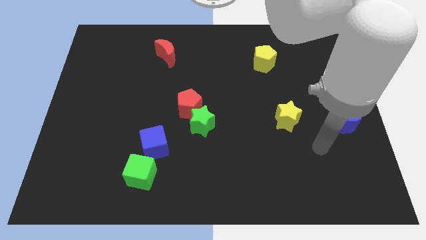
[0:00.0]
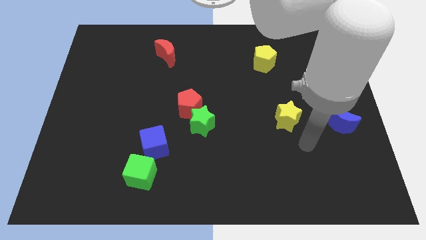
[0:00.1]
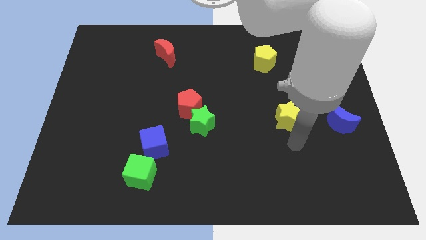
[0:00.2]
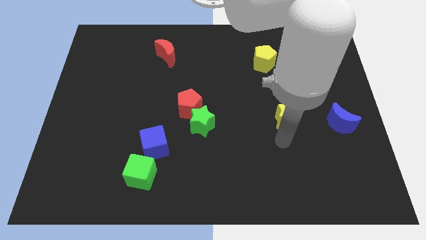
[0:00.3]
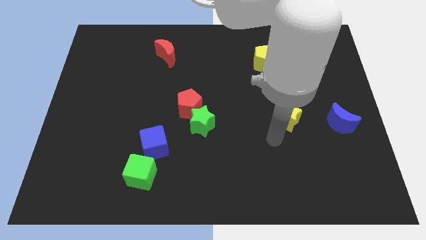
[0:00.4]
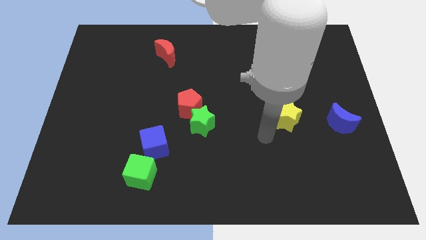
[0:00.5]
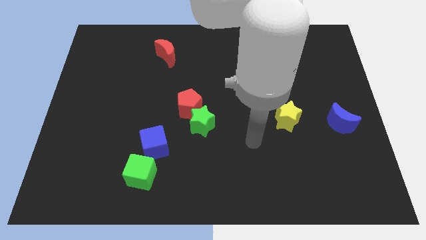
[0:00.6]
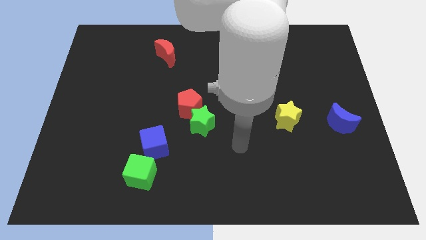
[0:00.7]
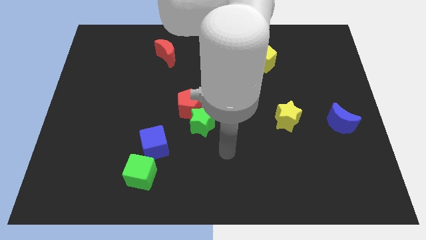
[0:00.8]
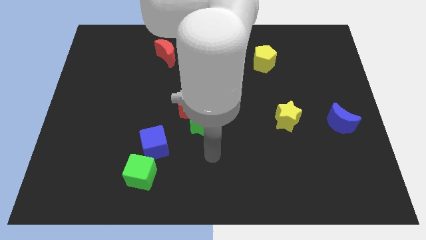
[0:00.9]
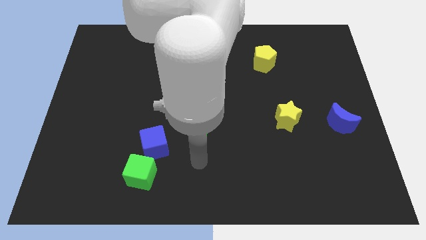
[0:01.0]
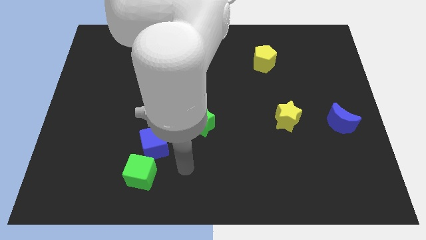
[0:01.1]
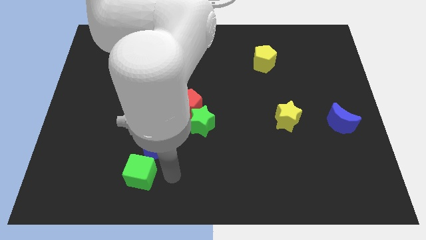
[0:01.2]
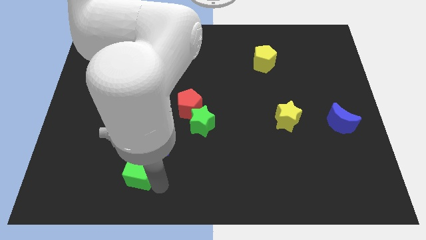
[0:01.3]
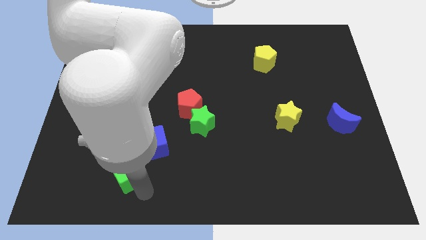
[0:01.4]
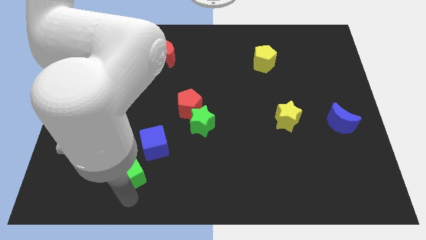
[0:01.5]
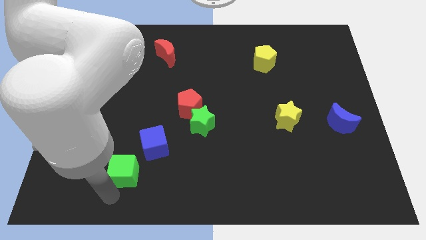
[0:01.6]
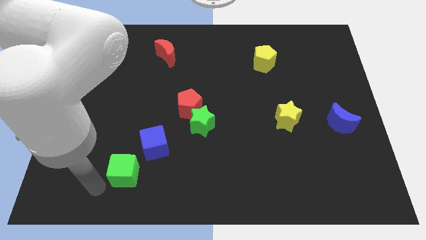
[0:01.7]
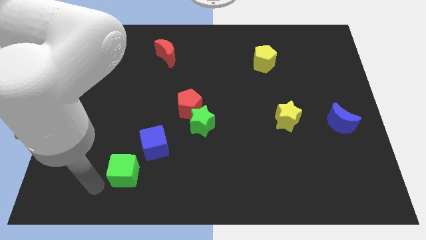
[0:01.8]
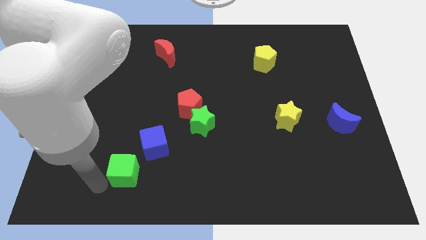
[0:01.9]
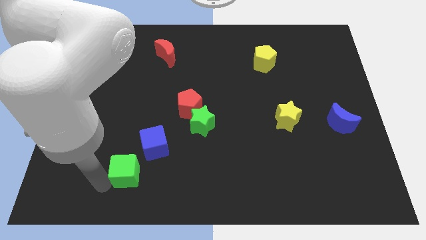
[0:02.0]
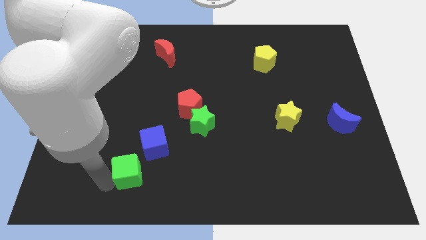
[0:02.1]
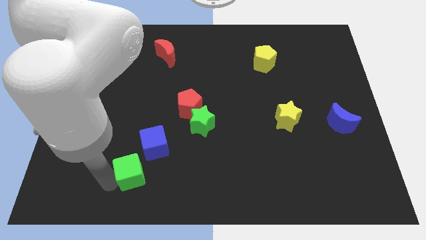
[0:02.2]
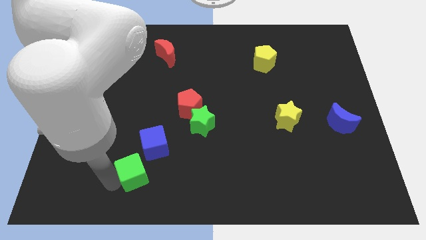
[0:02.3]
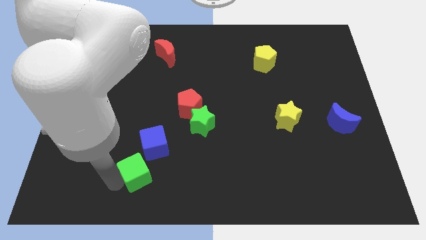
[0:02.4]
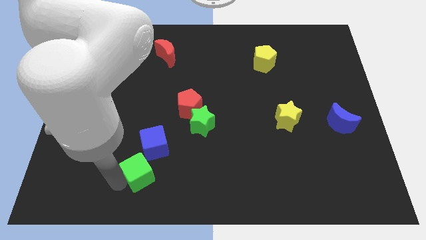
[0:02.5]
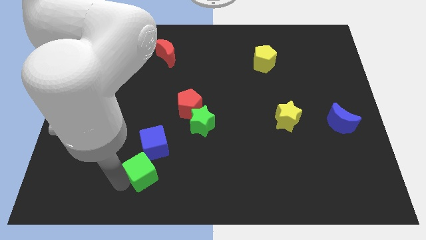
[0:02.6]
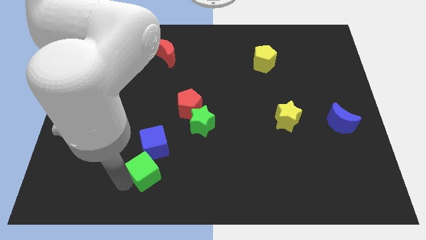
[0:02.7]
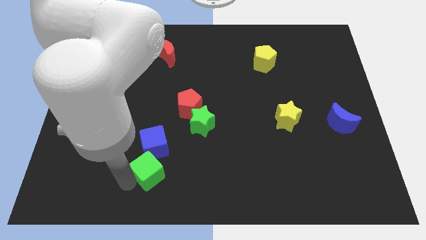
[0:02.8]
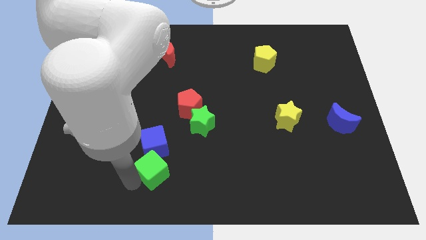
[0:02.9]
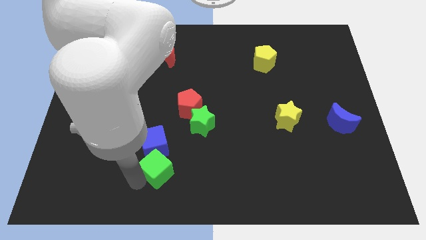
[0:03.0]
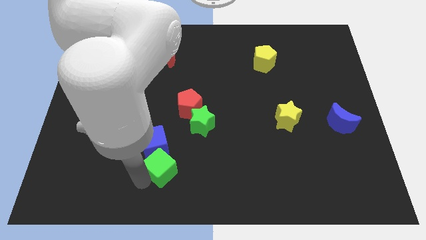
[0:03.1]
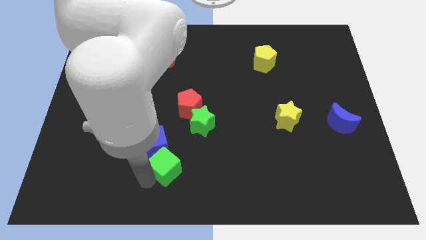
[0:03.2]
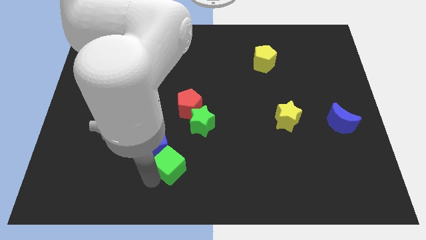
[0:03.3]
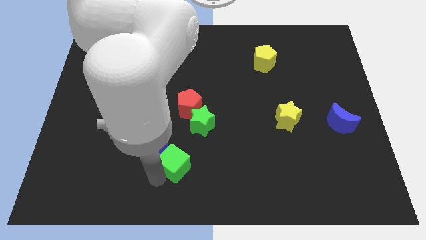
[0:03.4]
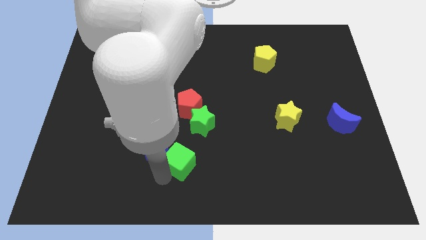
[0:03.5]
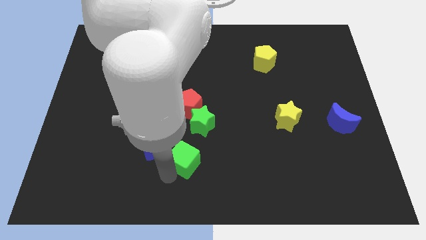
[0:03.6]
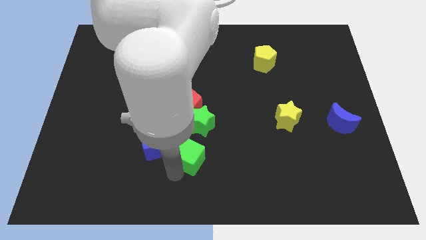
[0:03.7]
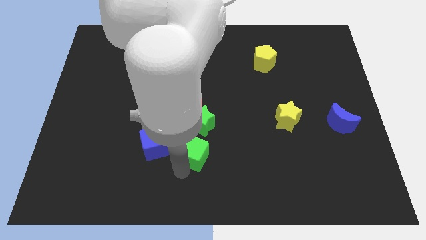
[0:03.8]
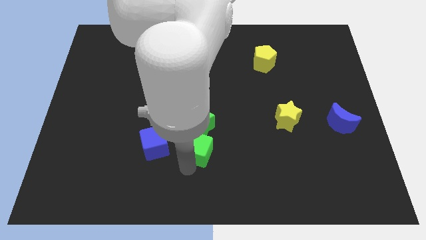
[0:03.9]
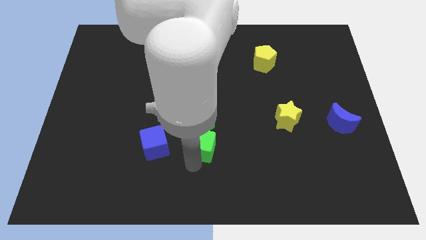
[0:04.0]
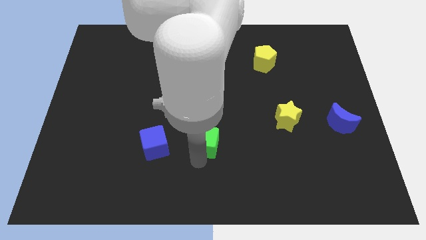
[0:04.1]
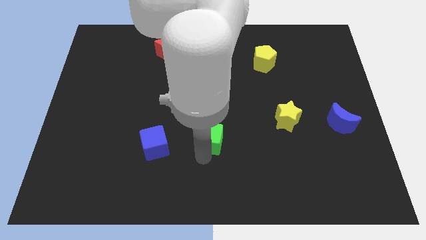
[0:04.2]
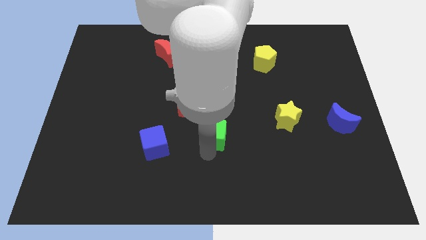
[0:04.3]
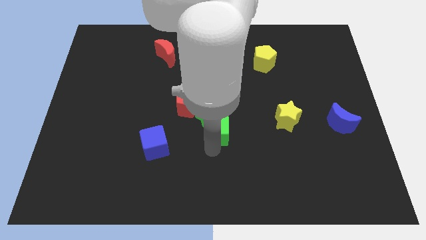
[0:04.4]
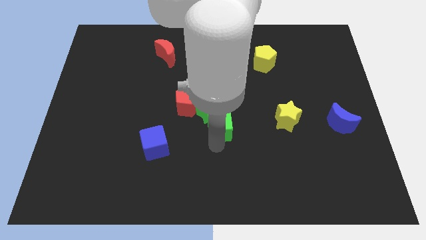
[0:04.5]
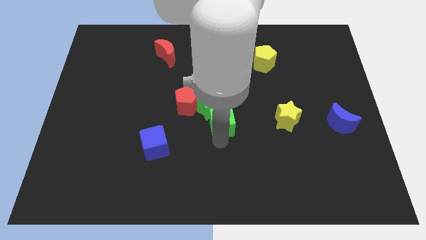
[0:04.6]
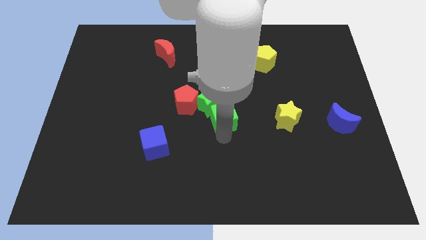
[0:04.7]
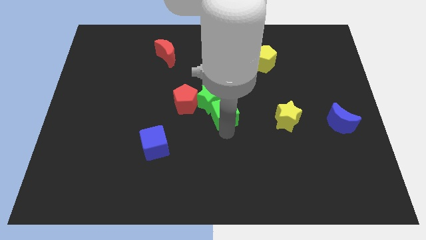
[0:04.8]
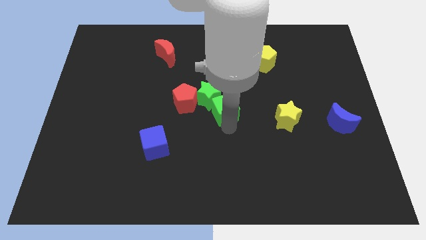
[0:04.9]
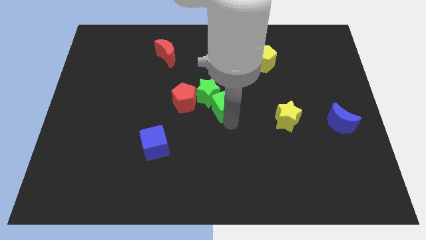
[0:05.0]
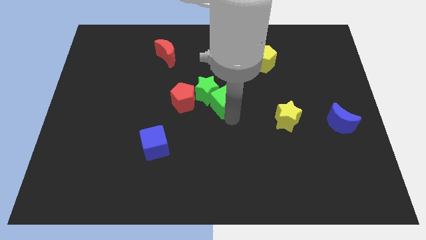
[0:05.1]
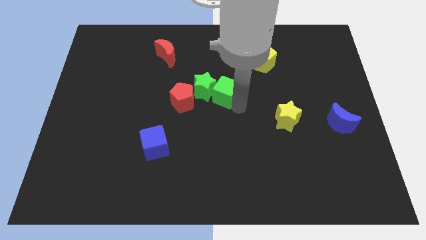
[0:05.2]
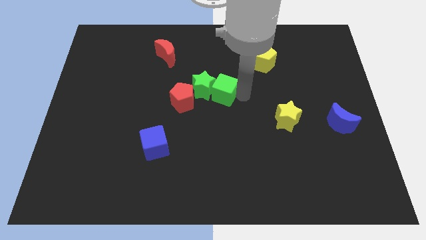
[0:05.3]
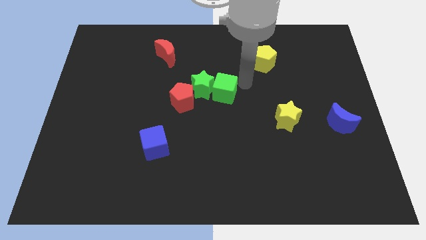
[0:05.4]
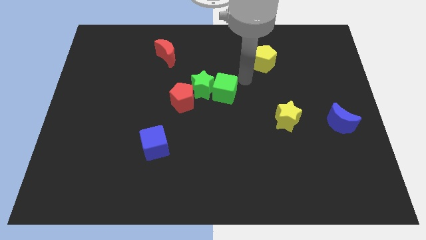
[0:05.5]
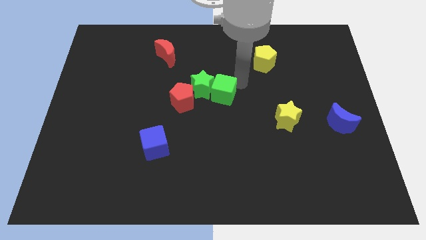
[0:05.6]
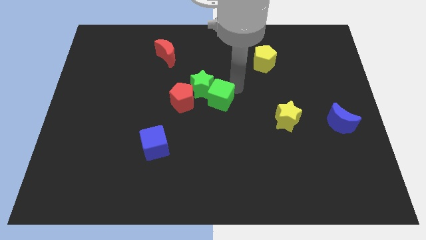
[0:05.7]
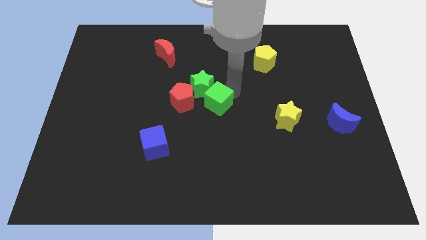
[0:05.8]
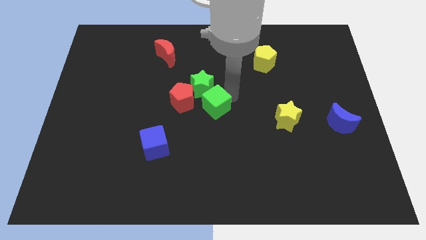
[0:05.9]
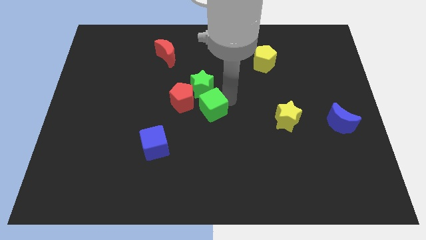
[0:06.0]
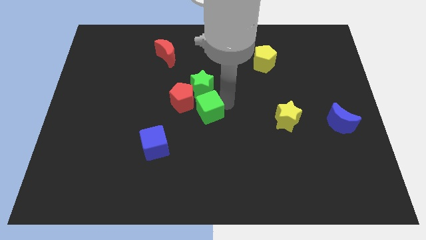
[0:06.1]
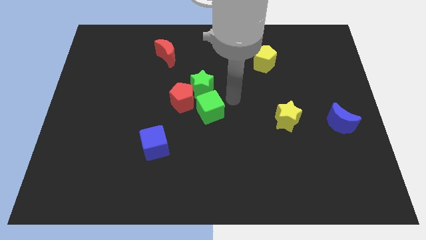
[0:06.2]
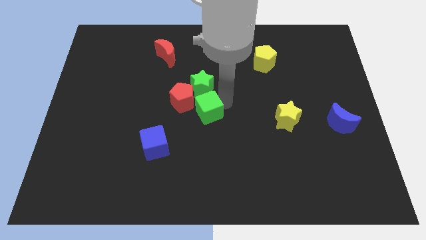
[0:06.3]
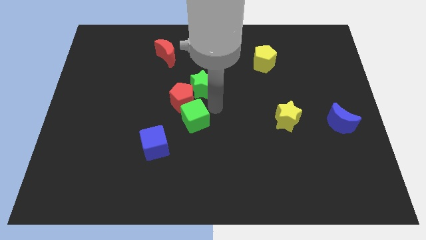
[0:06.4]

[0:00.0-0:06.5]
push the green cube somewhat up

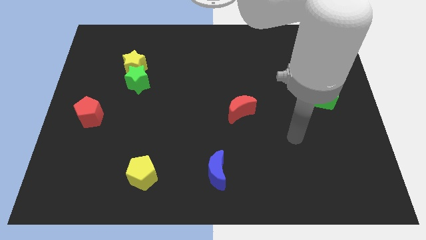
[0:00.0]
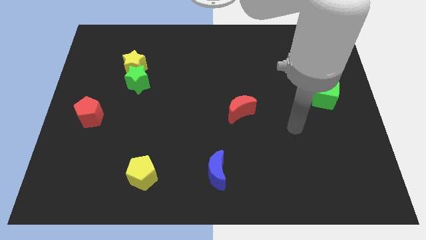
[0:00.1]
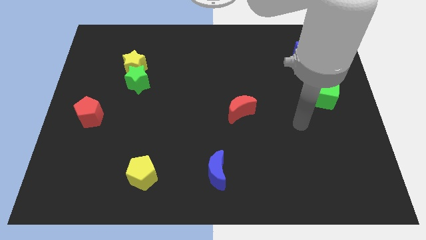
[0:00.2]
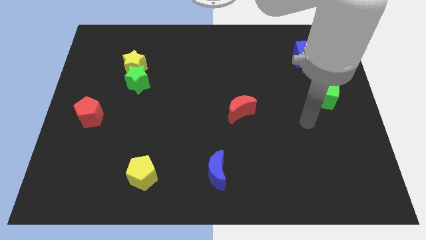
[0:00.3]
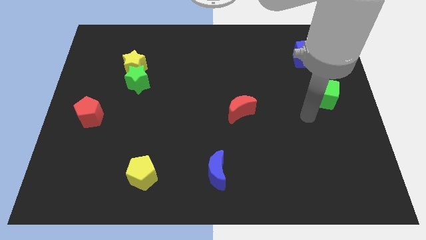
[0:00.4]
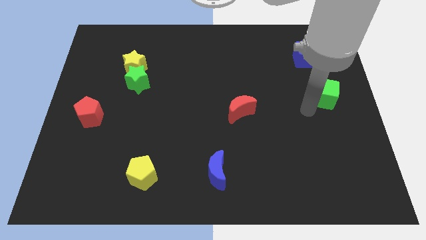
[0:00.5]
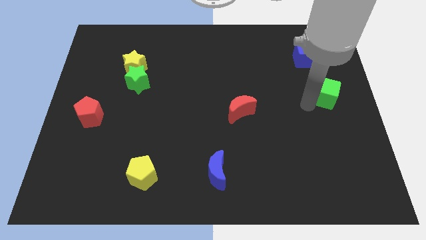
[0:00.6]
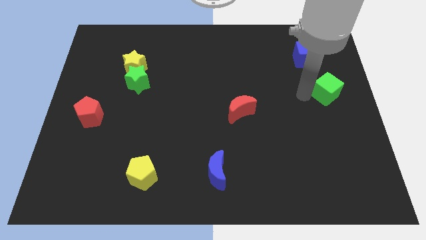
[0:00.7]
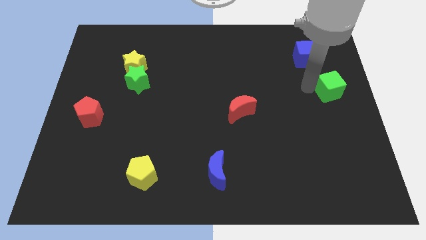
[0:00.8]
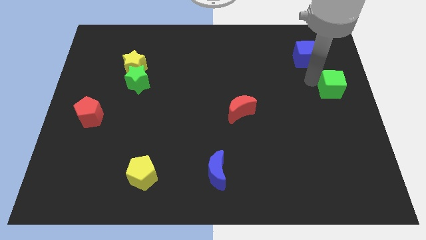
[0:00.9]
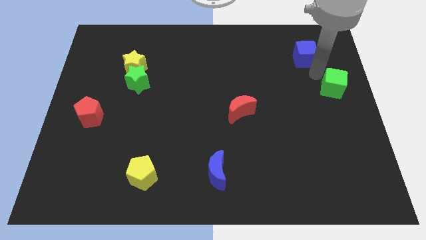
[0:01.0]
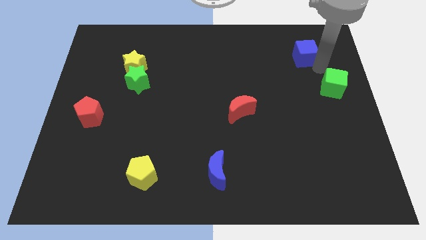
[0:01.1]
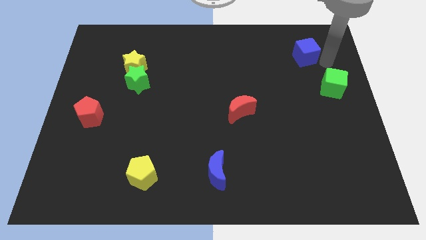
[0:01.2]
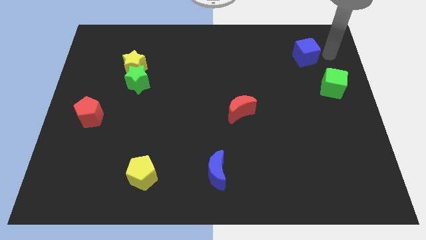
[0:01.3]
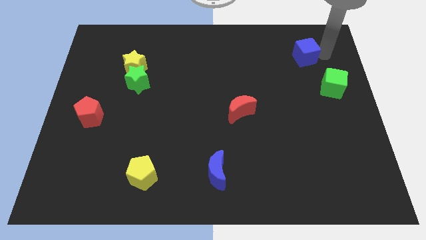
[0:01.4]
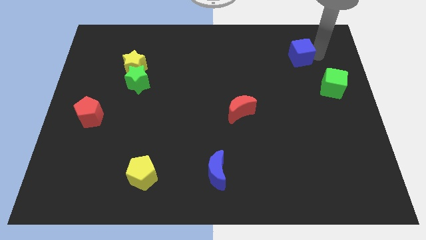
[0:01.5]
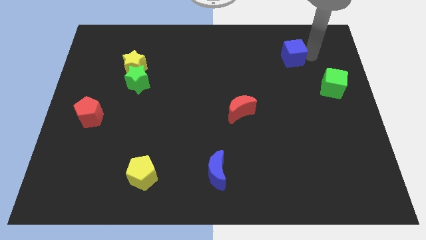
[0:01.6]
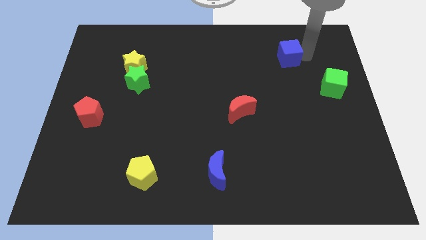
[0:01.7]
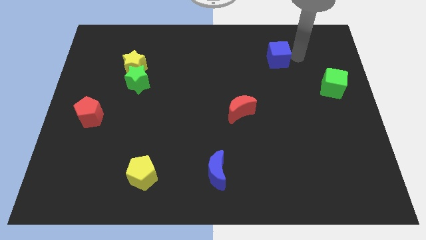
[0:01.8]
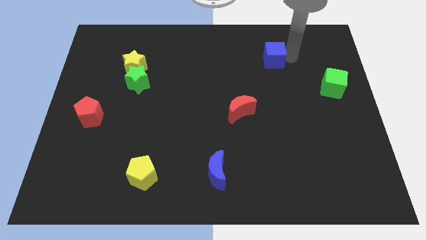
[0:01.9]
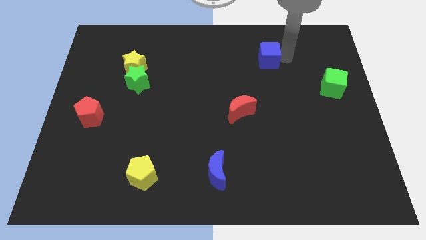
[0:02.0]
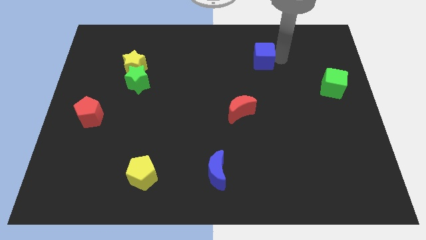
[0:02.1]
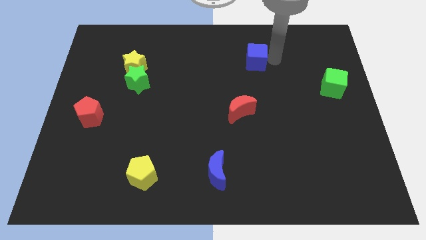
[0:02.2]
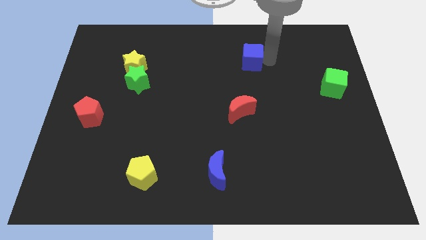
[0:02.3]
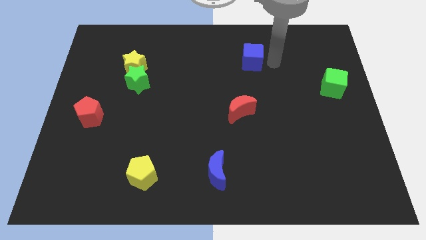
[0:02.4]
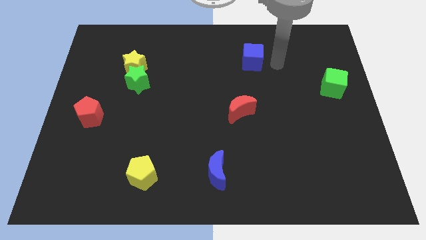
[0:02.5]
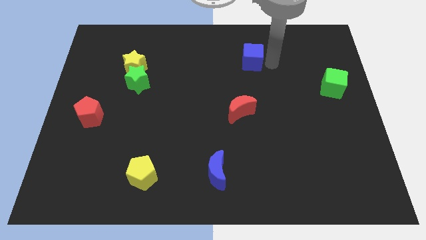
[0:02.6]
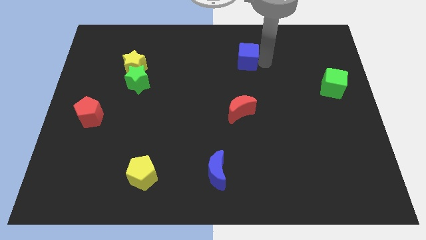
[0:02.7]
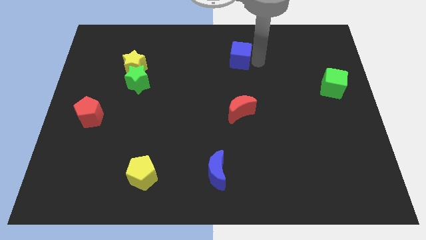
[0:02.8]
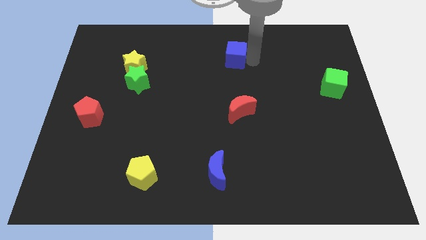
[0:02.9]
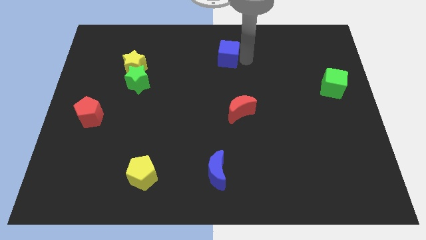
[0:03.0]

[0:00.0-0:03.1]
push the blue cube to the left
